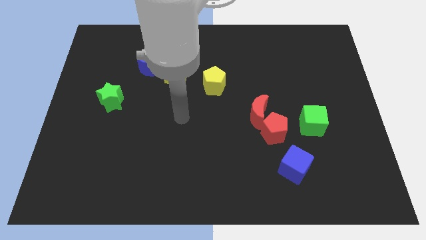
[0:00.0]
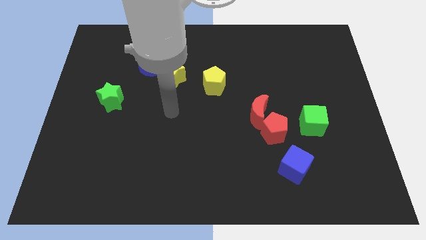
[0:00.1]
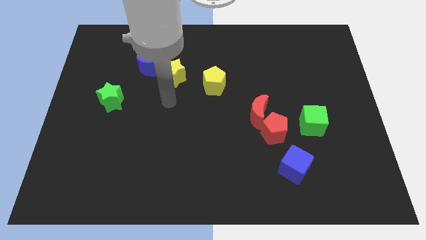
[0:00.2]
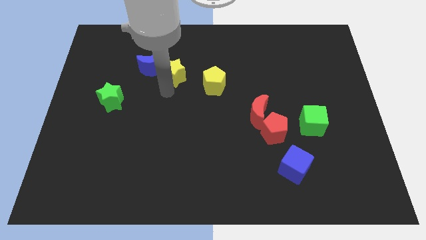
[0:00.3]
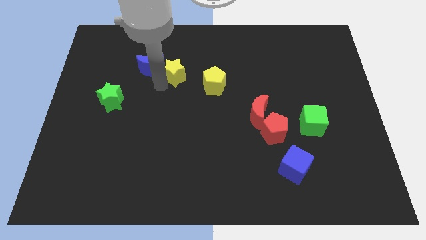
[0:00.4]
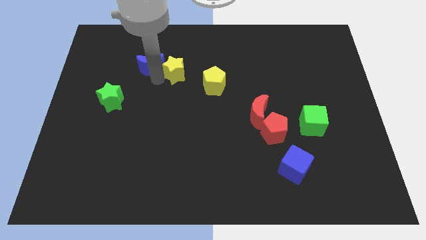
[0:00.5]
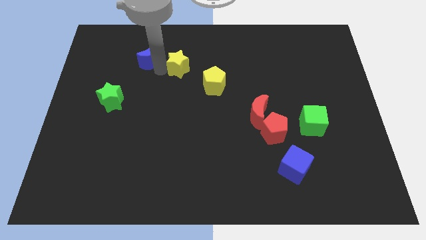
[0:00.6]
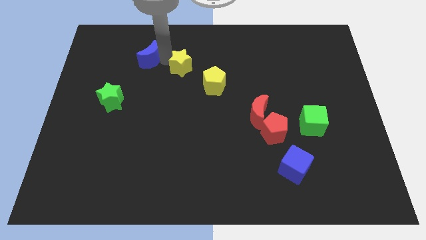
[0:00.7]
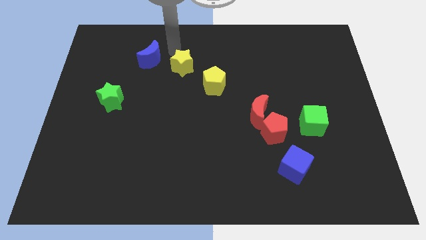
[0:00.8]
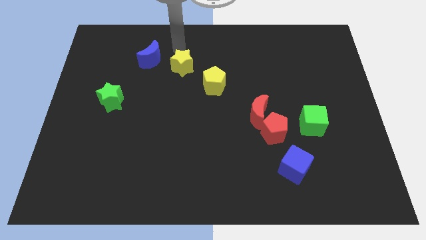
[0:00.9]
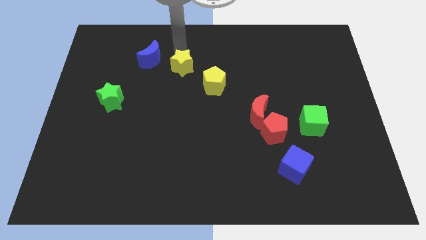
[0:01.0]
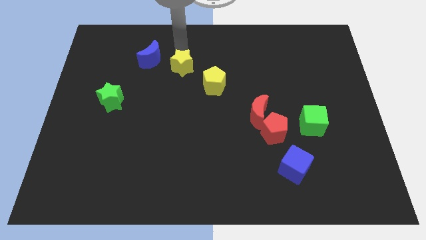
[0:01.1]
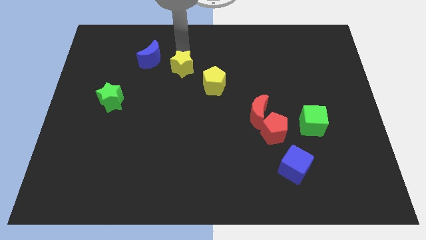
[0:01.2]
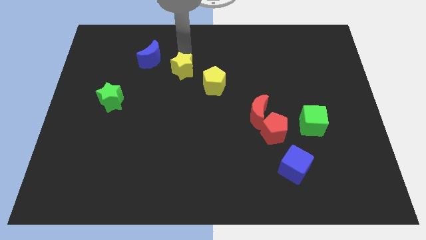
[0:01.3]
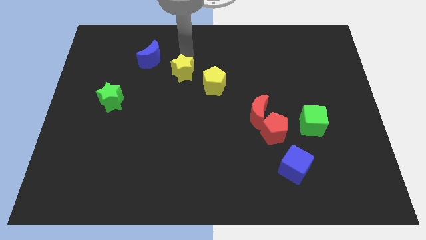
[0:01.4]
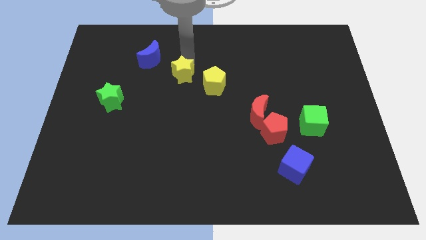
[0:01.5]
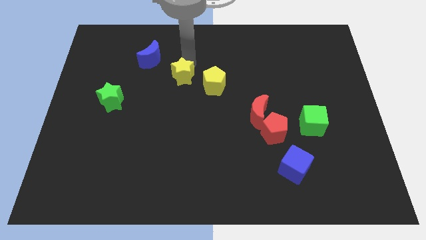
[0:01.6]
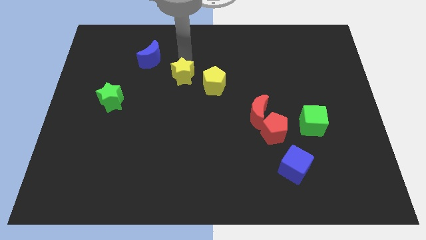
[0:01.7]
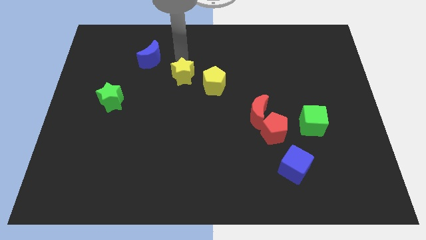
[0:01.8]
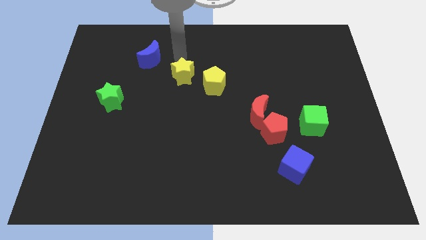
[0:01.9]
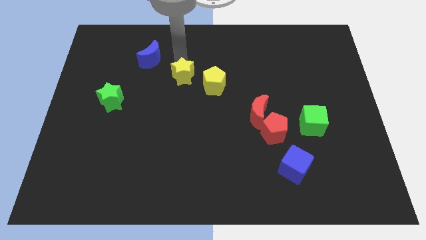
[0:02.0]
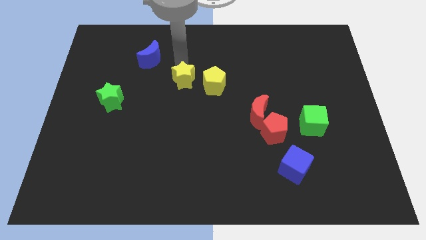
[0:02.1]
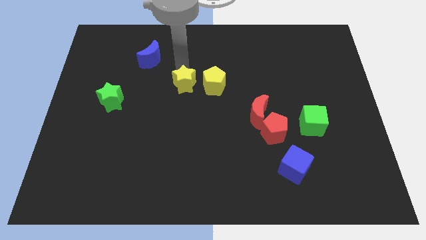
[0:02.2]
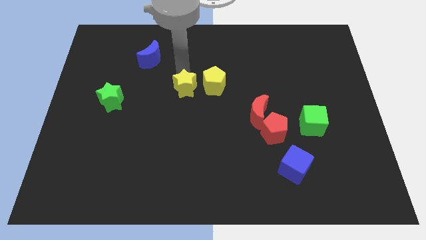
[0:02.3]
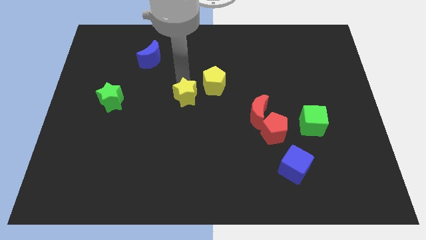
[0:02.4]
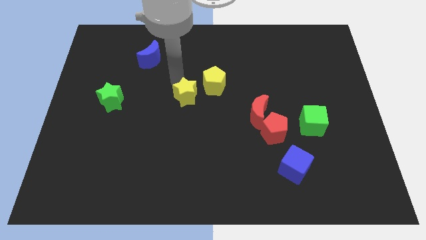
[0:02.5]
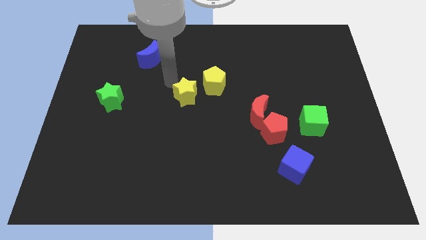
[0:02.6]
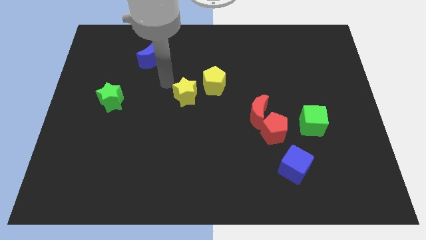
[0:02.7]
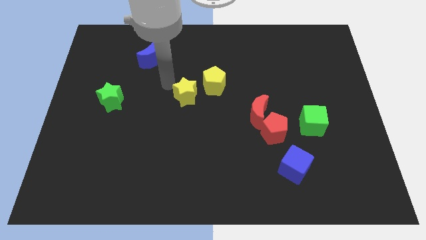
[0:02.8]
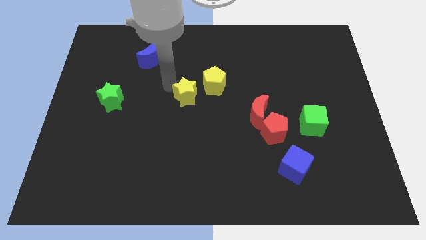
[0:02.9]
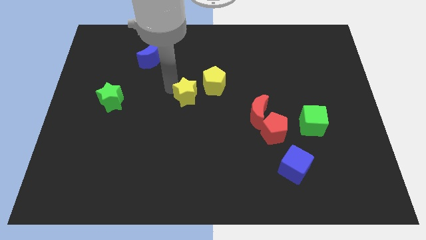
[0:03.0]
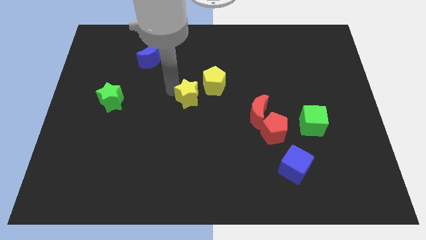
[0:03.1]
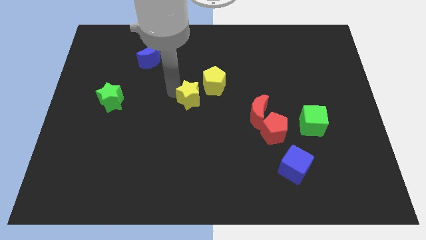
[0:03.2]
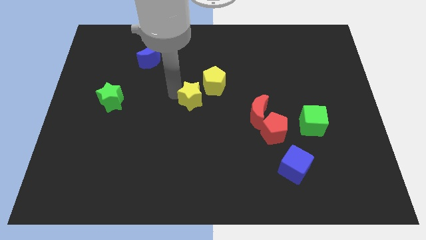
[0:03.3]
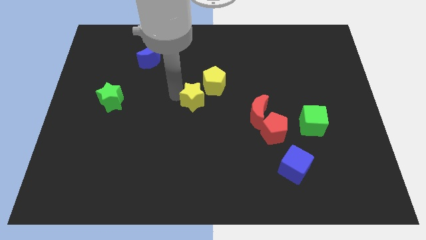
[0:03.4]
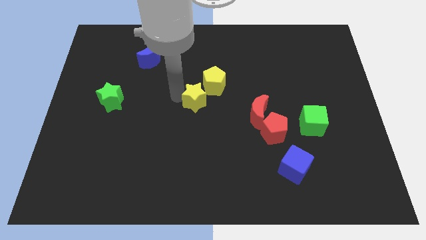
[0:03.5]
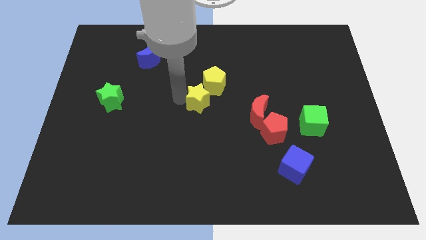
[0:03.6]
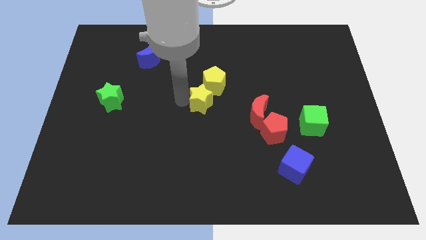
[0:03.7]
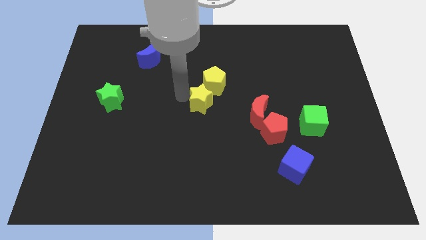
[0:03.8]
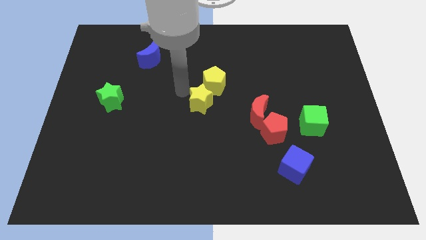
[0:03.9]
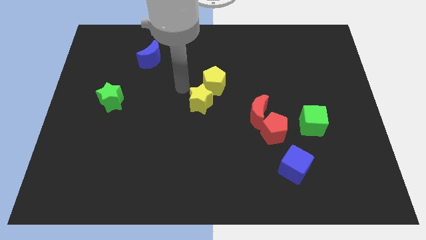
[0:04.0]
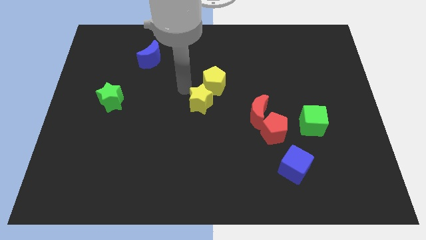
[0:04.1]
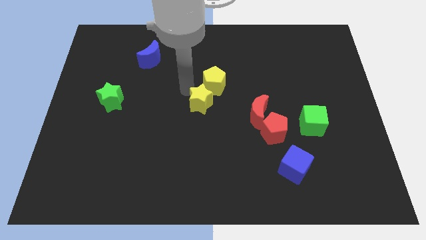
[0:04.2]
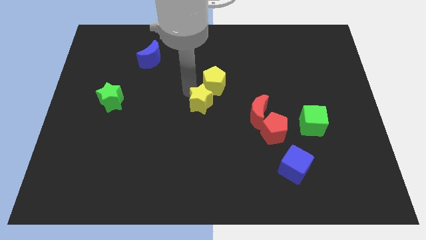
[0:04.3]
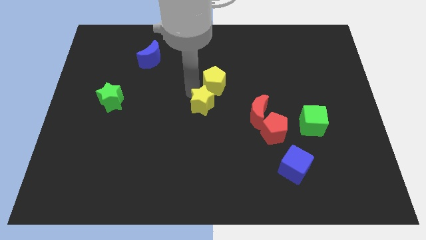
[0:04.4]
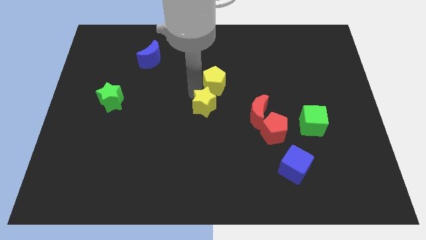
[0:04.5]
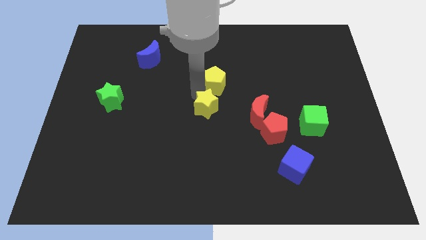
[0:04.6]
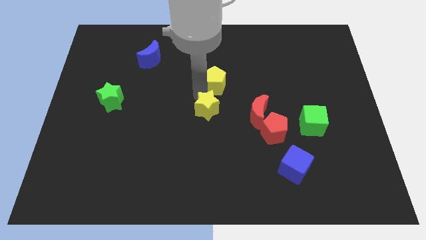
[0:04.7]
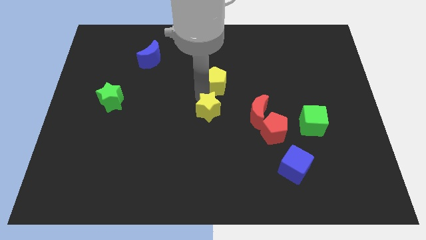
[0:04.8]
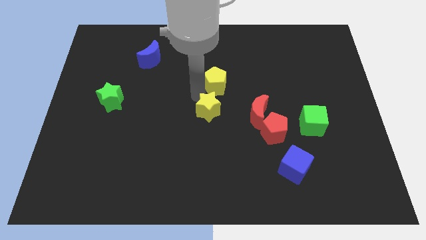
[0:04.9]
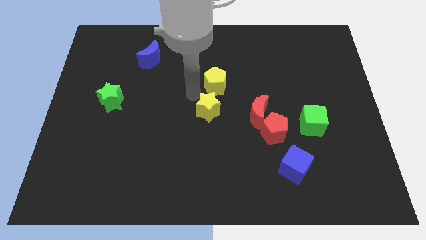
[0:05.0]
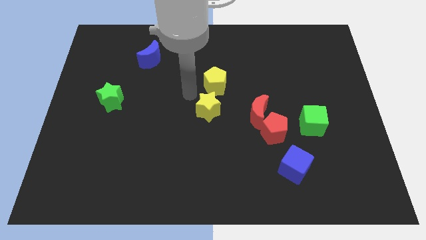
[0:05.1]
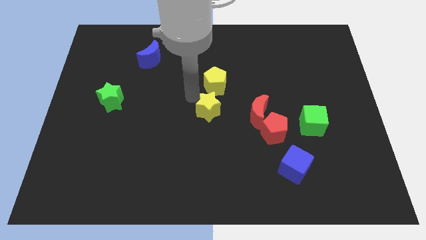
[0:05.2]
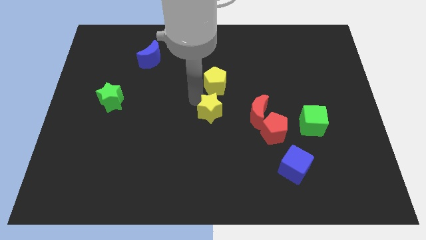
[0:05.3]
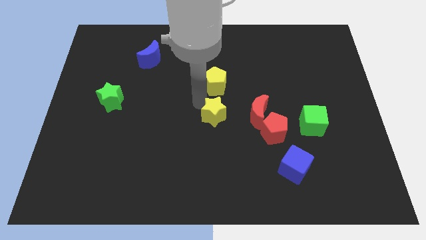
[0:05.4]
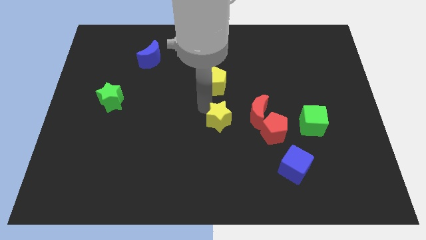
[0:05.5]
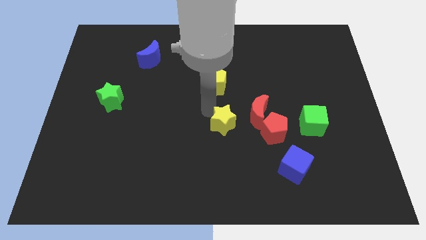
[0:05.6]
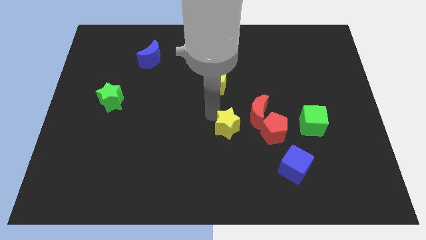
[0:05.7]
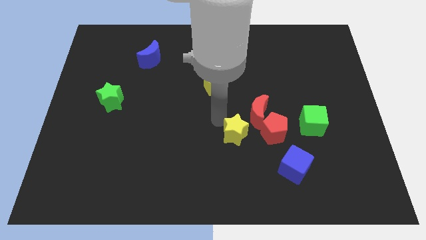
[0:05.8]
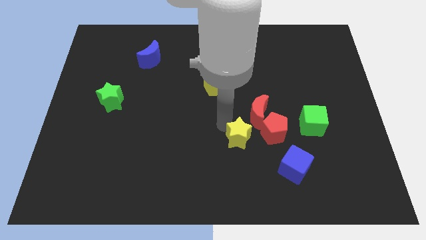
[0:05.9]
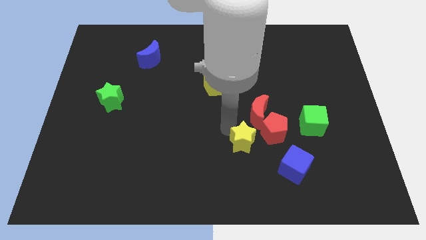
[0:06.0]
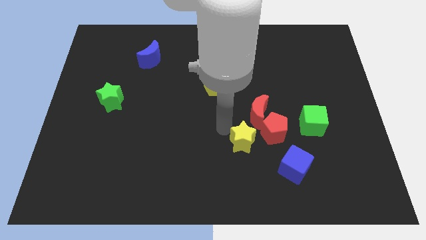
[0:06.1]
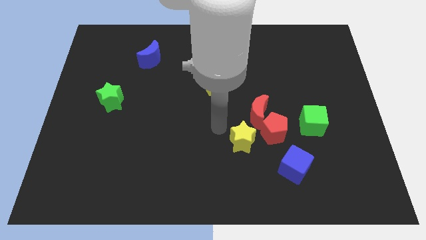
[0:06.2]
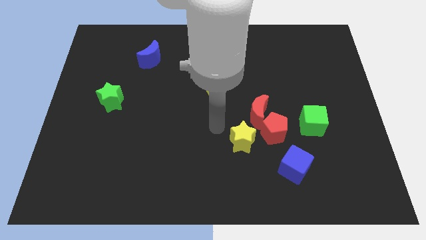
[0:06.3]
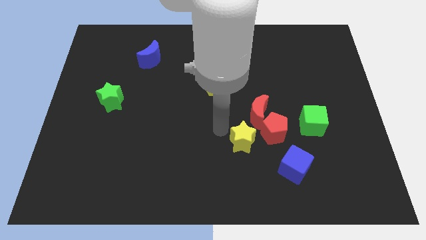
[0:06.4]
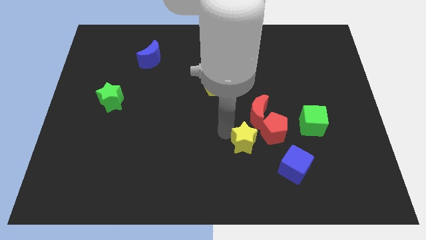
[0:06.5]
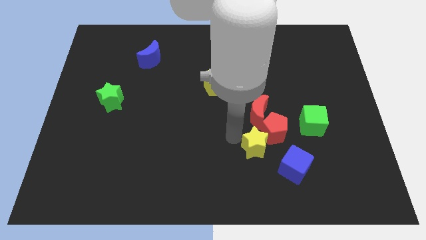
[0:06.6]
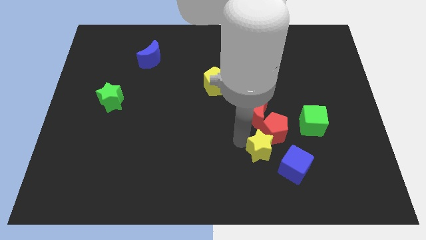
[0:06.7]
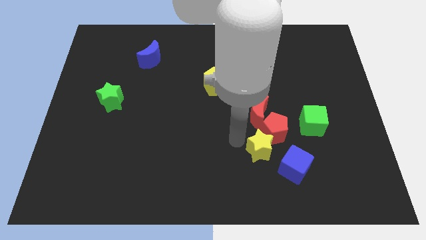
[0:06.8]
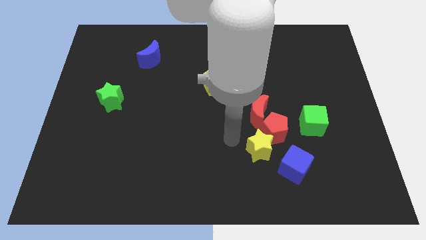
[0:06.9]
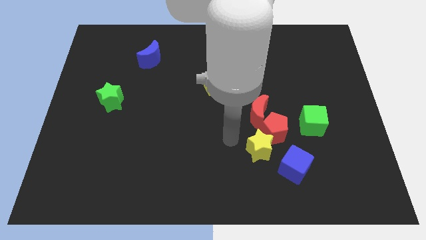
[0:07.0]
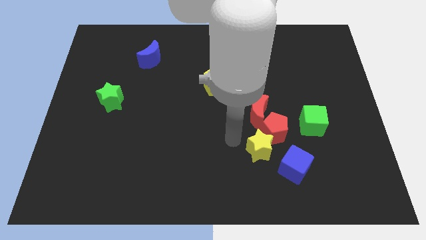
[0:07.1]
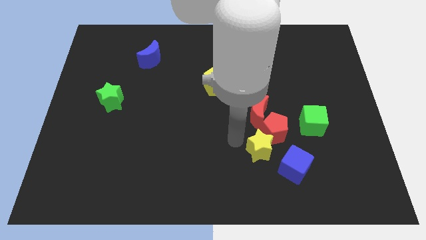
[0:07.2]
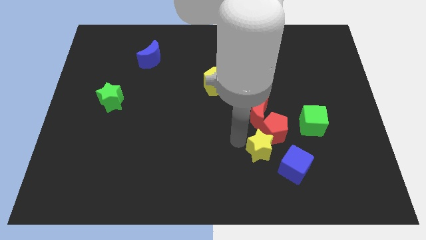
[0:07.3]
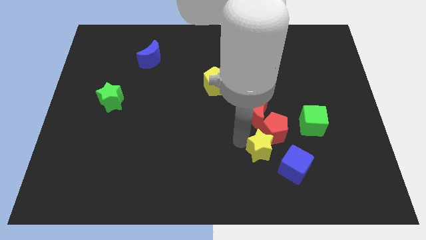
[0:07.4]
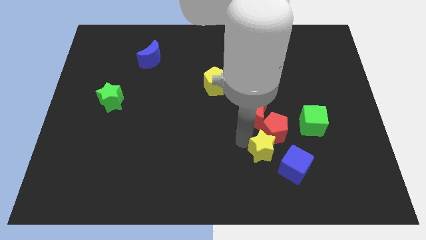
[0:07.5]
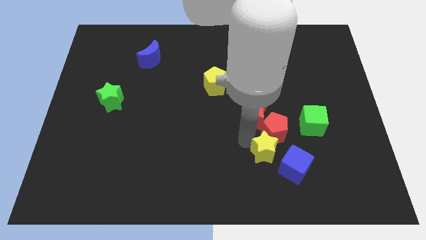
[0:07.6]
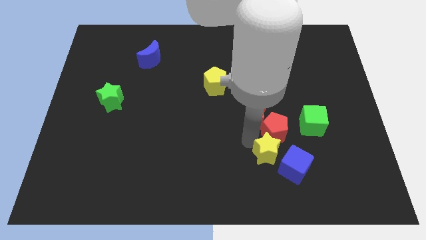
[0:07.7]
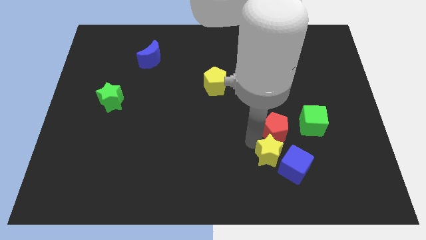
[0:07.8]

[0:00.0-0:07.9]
slide the yellow star close to the blue cube
